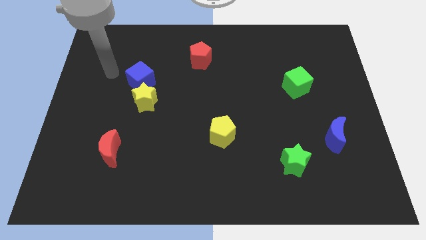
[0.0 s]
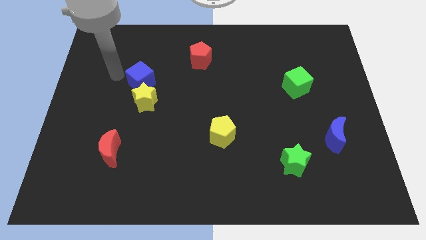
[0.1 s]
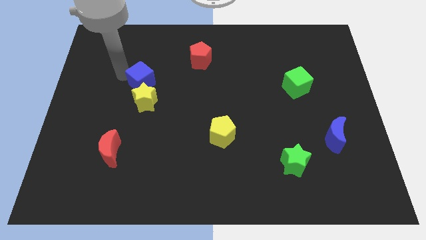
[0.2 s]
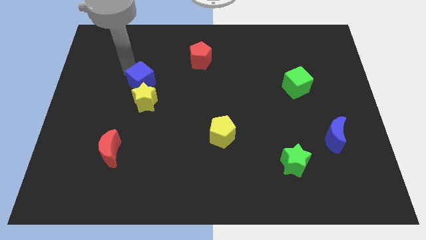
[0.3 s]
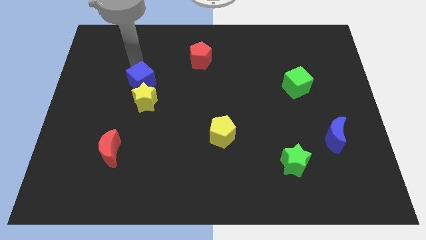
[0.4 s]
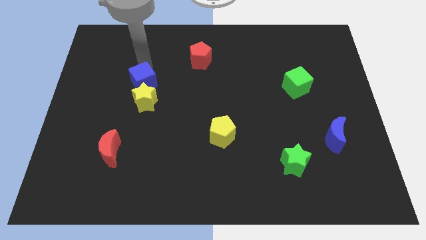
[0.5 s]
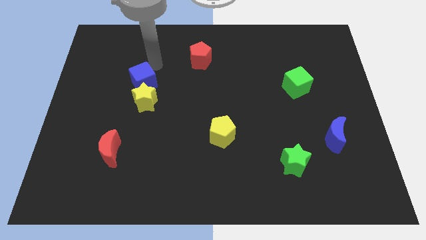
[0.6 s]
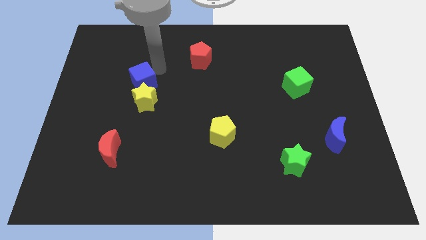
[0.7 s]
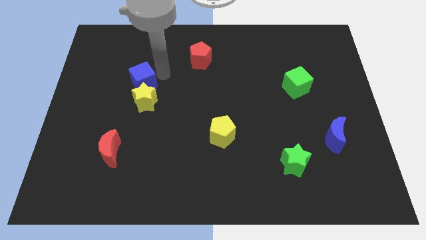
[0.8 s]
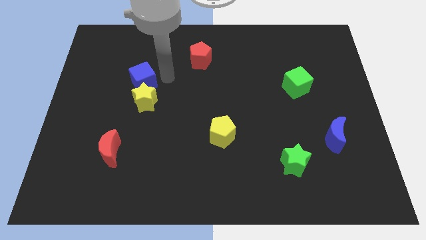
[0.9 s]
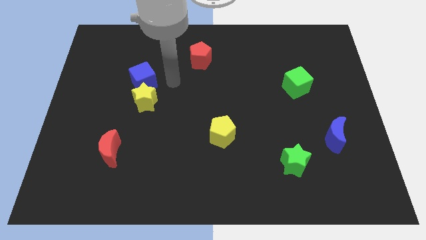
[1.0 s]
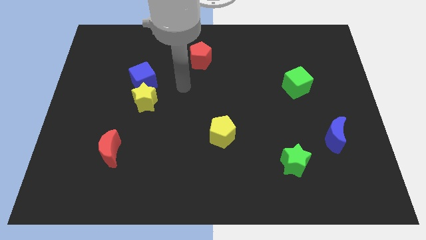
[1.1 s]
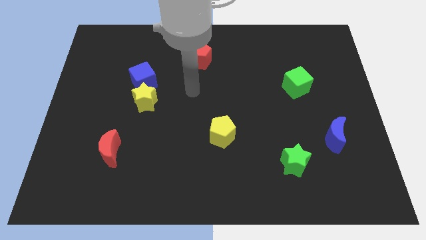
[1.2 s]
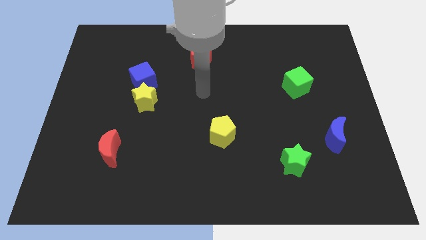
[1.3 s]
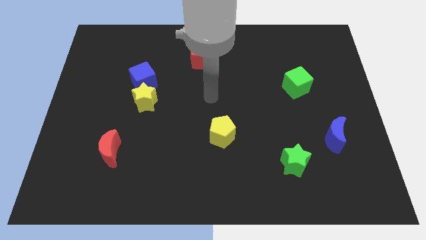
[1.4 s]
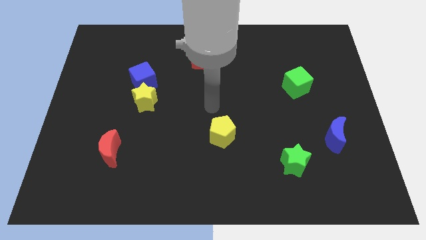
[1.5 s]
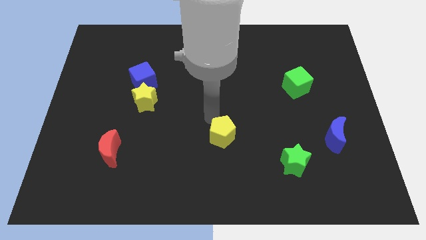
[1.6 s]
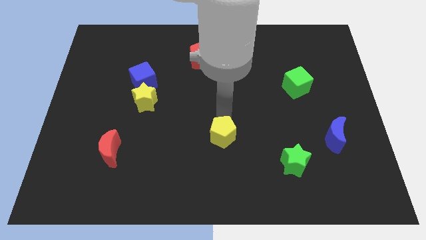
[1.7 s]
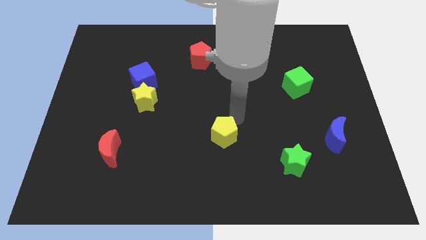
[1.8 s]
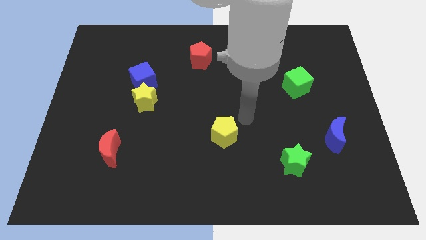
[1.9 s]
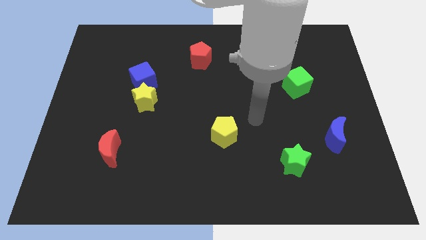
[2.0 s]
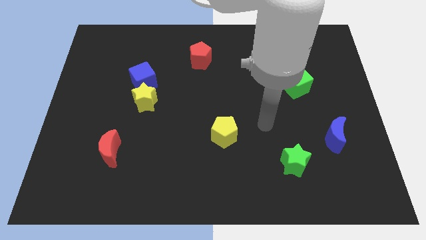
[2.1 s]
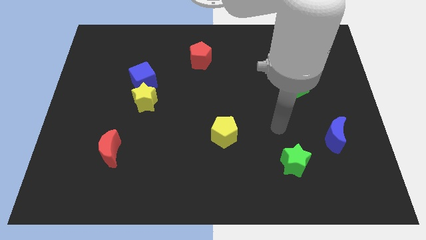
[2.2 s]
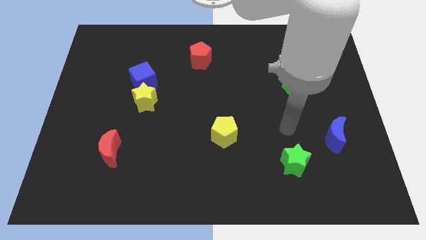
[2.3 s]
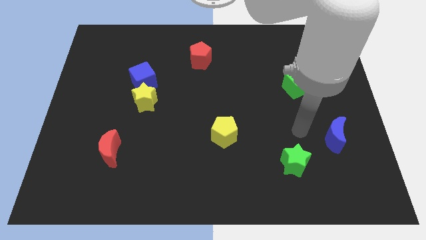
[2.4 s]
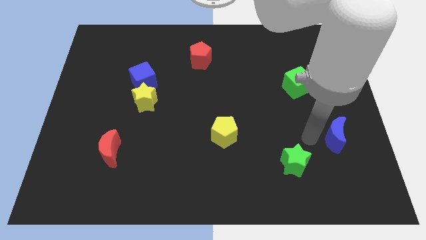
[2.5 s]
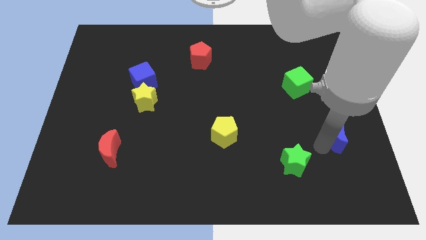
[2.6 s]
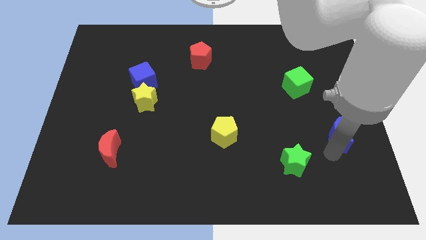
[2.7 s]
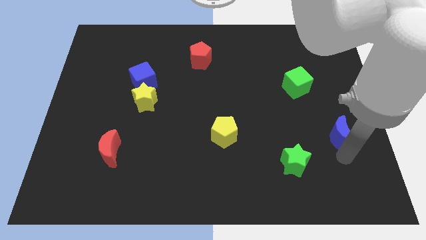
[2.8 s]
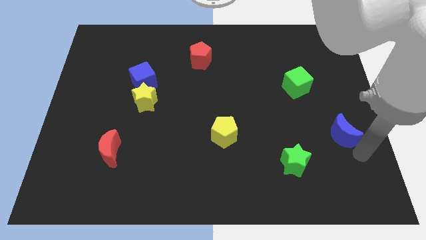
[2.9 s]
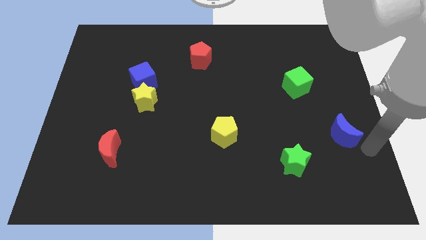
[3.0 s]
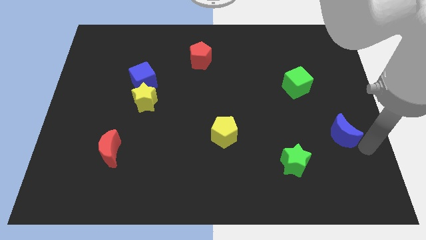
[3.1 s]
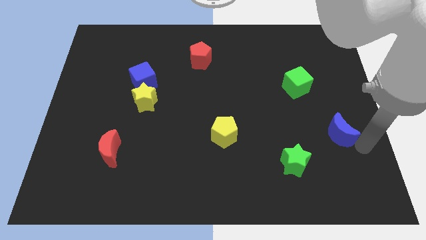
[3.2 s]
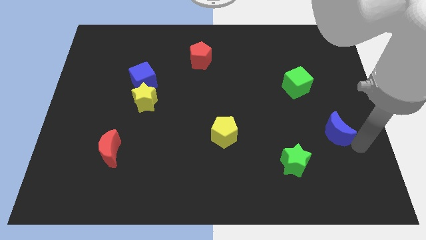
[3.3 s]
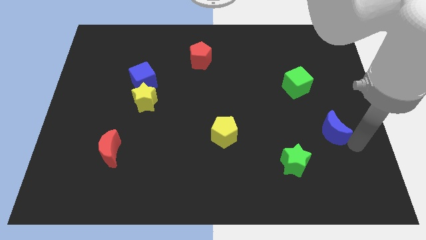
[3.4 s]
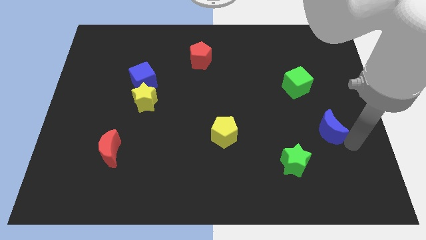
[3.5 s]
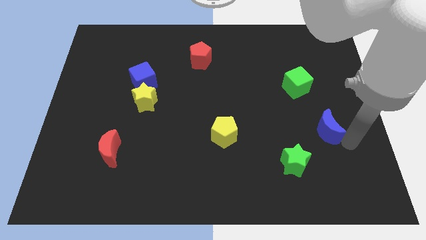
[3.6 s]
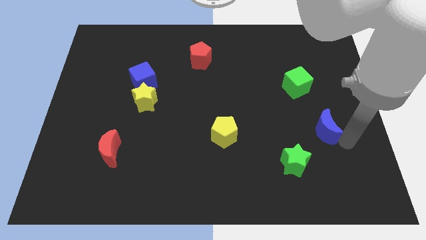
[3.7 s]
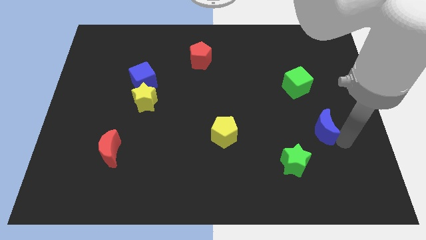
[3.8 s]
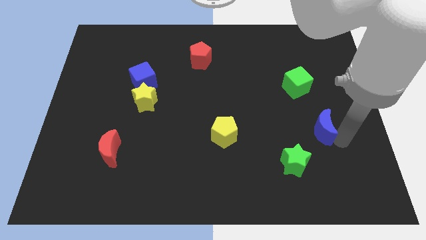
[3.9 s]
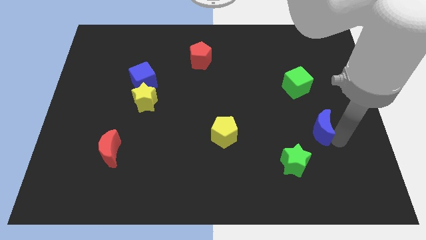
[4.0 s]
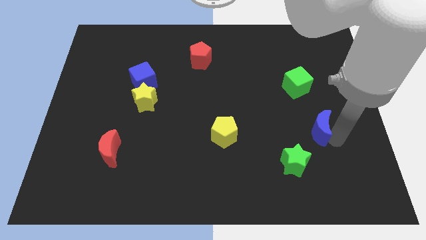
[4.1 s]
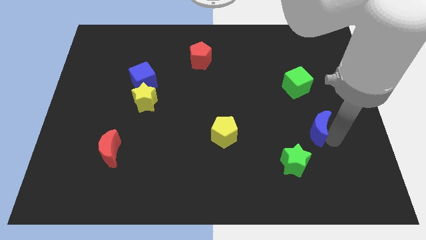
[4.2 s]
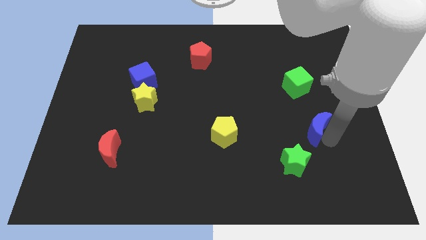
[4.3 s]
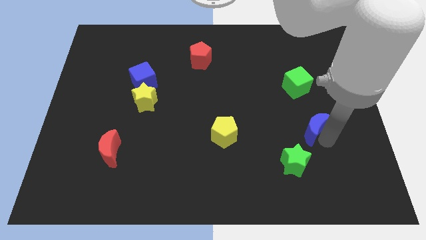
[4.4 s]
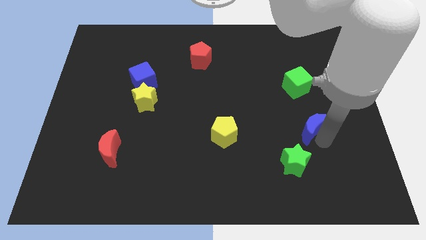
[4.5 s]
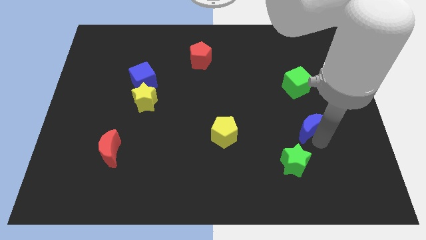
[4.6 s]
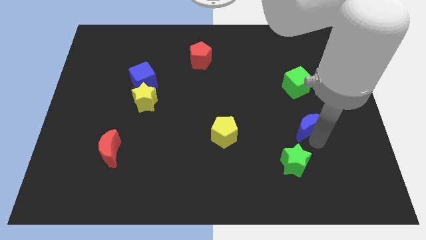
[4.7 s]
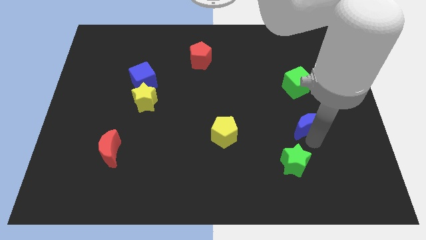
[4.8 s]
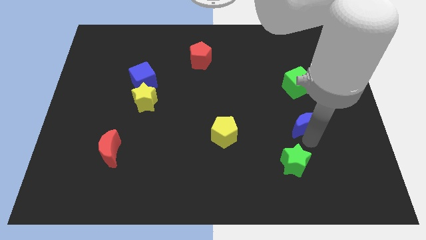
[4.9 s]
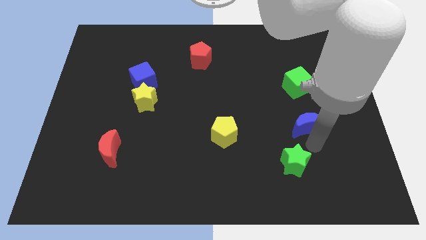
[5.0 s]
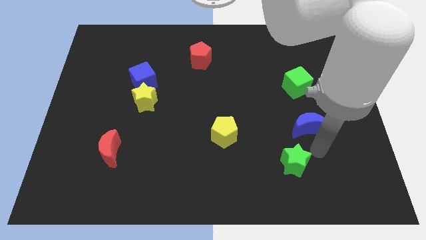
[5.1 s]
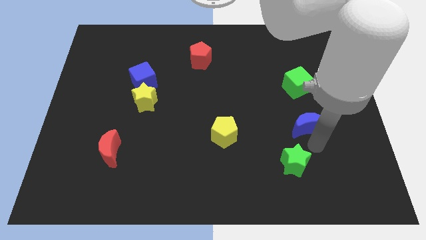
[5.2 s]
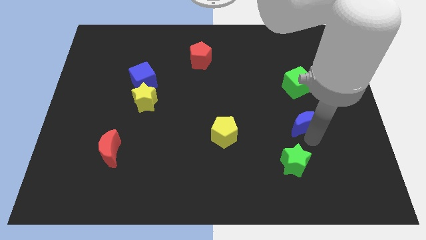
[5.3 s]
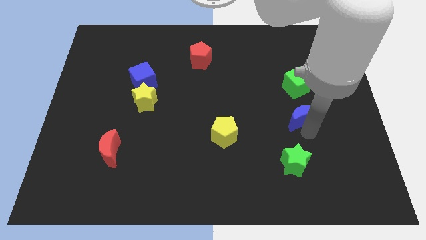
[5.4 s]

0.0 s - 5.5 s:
slide the blue moon up and left a little

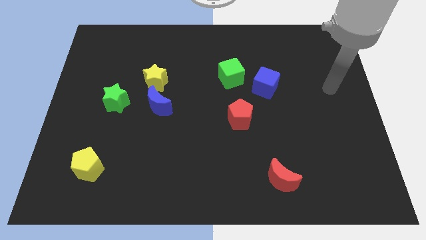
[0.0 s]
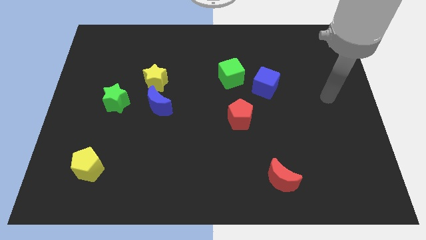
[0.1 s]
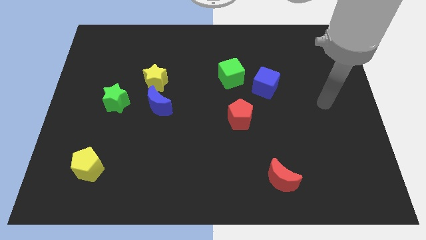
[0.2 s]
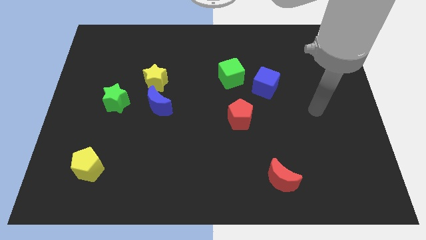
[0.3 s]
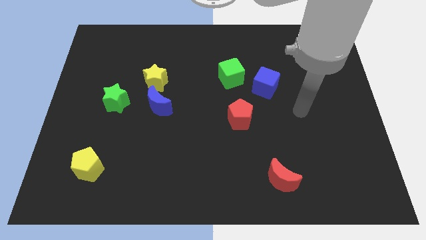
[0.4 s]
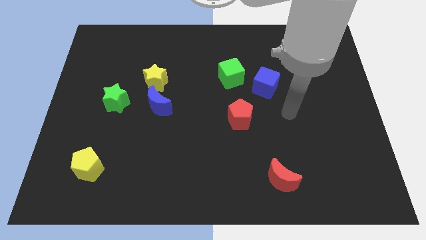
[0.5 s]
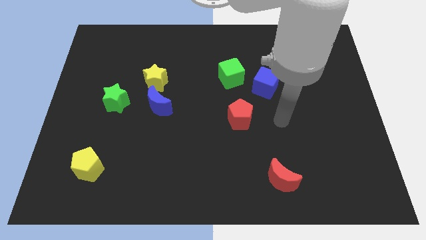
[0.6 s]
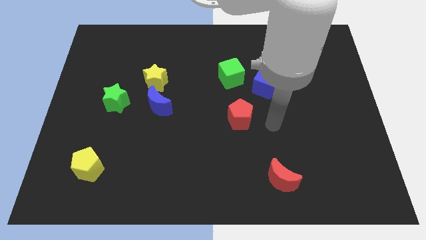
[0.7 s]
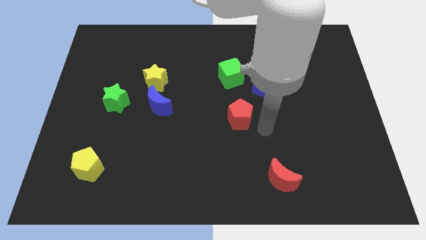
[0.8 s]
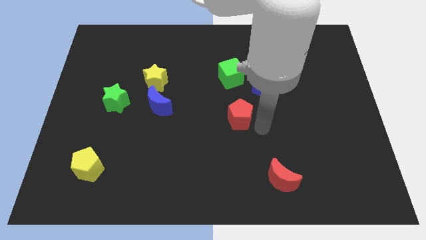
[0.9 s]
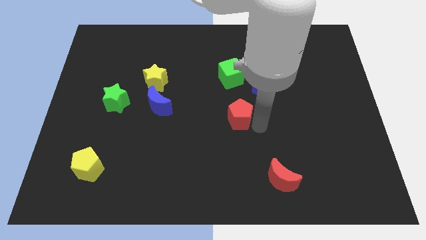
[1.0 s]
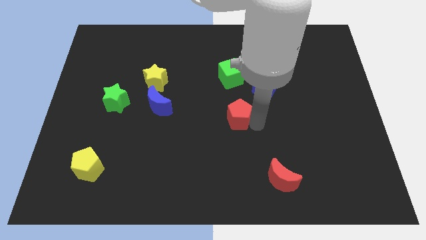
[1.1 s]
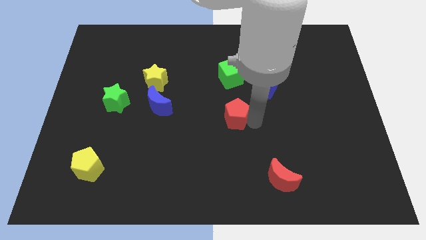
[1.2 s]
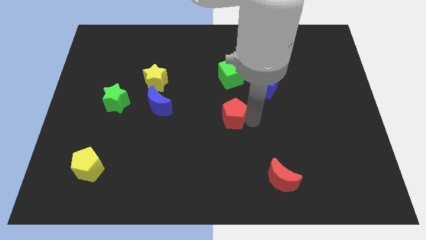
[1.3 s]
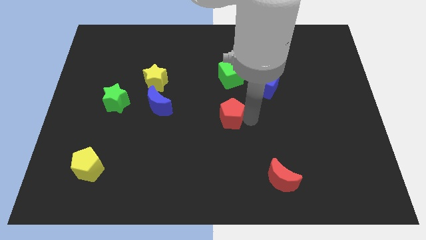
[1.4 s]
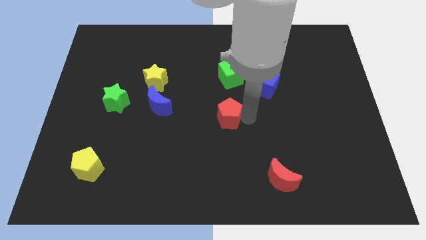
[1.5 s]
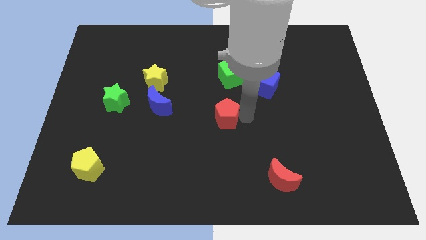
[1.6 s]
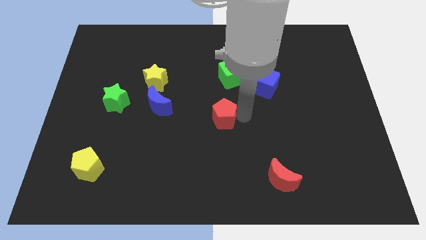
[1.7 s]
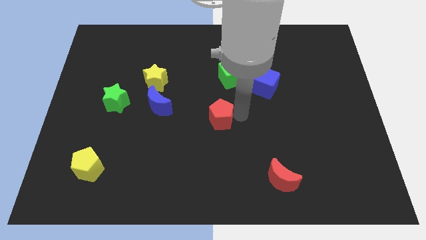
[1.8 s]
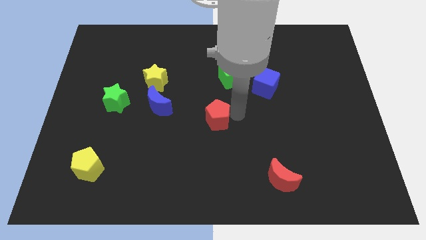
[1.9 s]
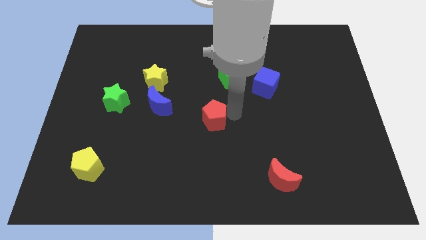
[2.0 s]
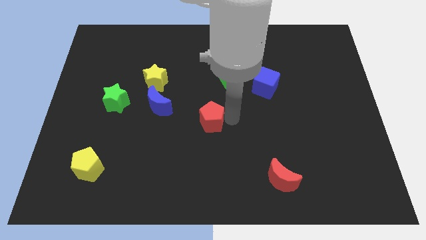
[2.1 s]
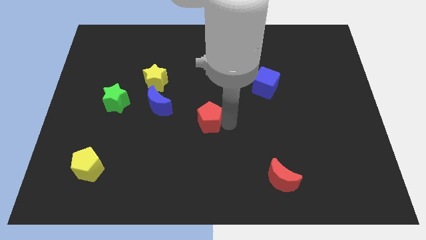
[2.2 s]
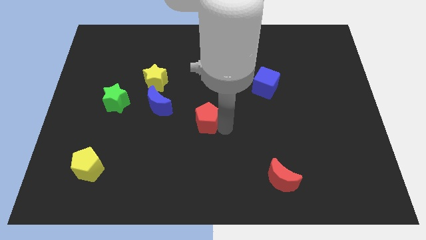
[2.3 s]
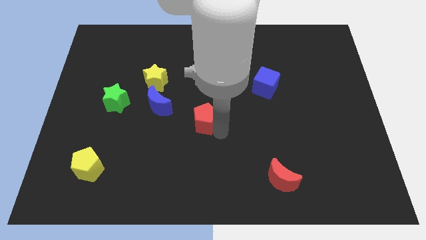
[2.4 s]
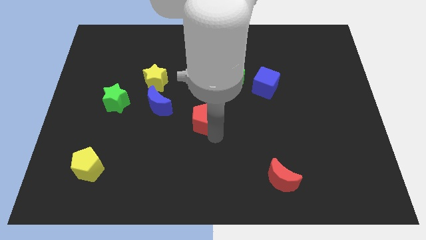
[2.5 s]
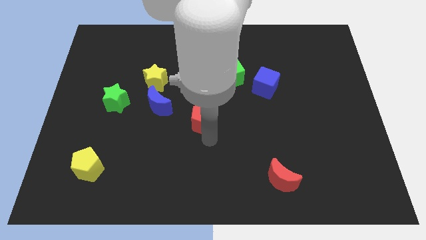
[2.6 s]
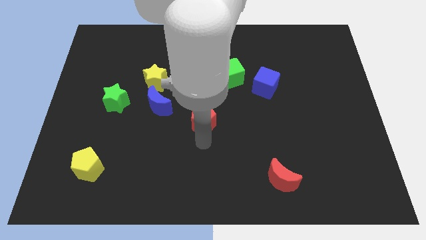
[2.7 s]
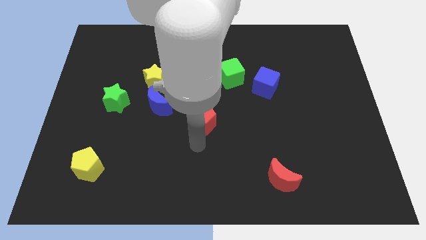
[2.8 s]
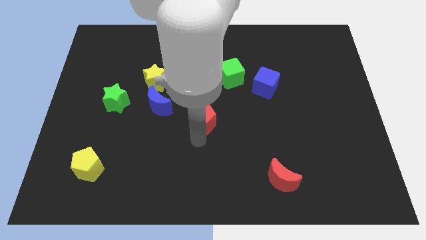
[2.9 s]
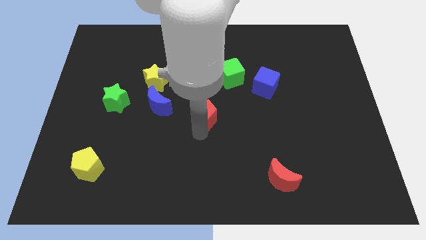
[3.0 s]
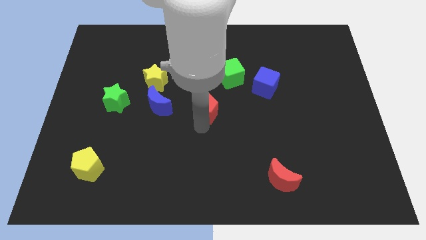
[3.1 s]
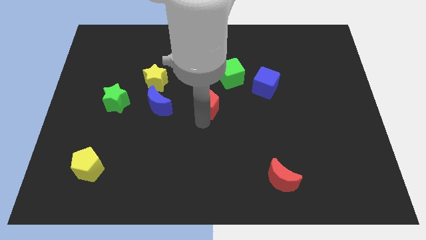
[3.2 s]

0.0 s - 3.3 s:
slide the red pentagon slightly up and to the left
